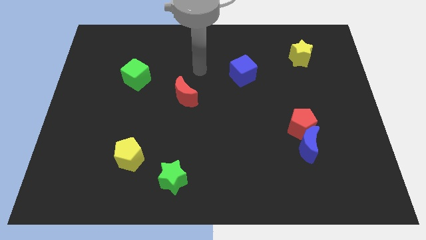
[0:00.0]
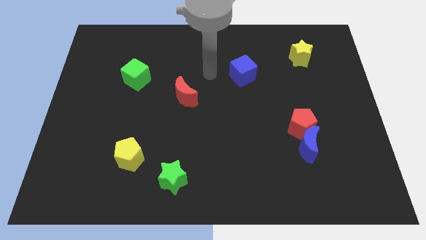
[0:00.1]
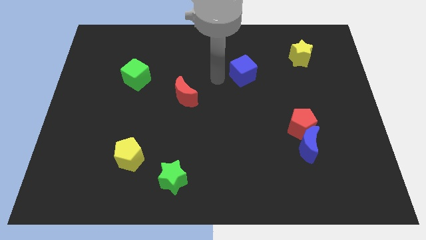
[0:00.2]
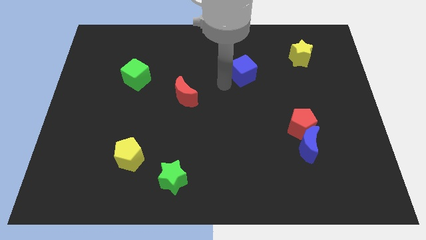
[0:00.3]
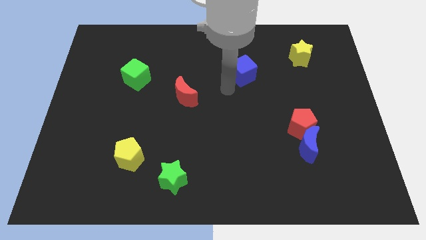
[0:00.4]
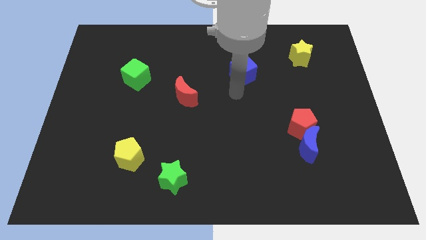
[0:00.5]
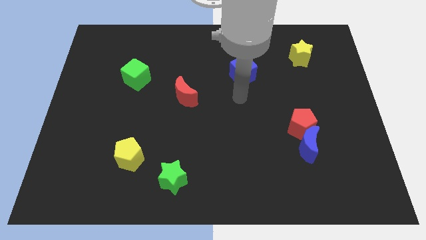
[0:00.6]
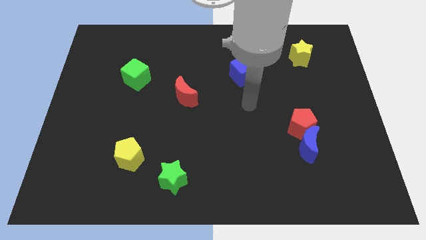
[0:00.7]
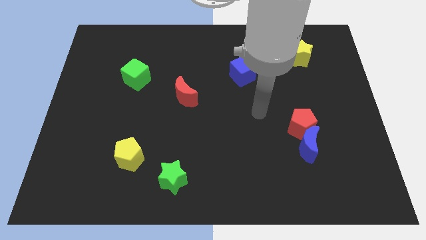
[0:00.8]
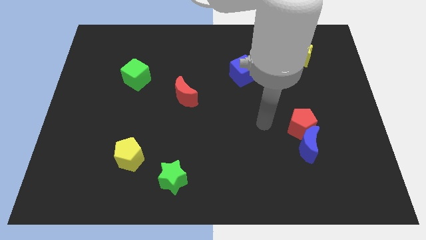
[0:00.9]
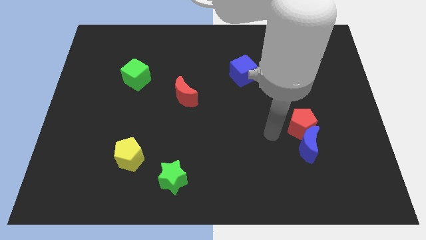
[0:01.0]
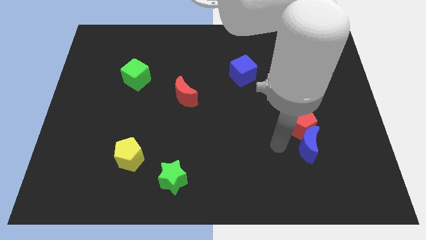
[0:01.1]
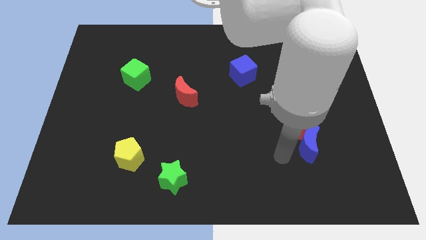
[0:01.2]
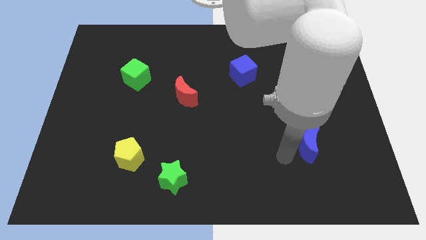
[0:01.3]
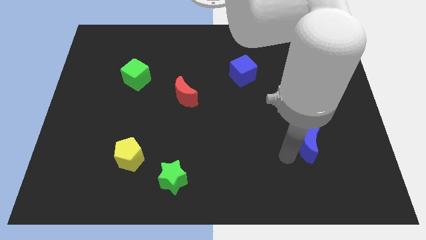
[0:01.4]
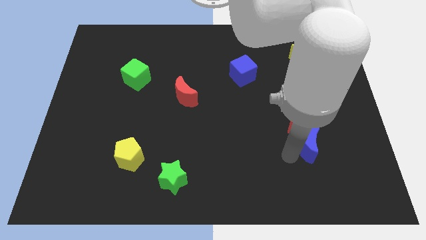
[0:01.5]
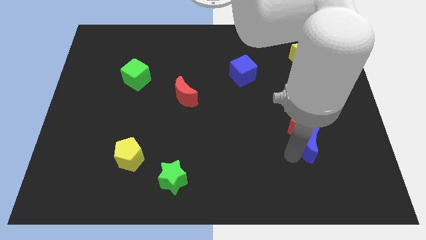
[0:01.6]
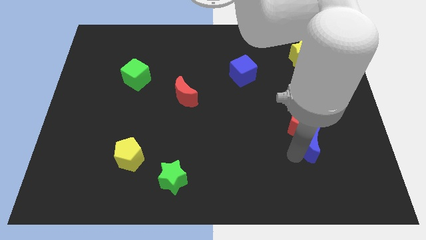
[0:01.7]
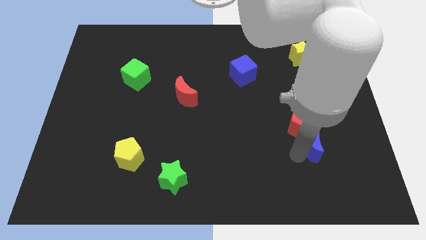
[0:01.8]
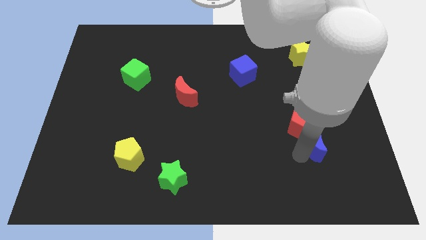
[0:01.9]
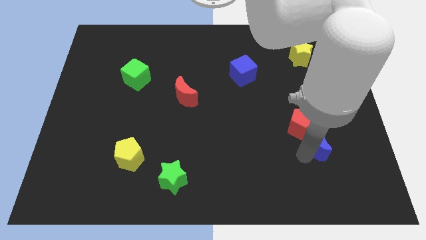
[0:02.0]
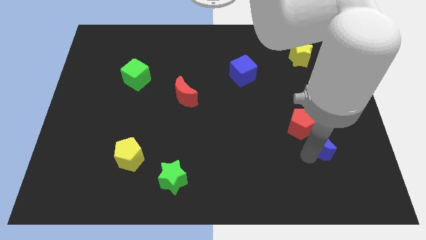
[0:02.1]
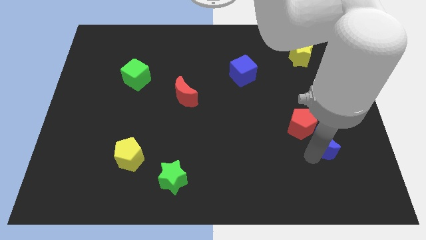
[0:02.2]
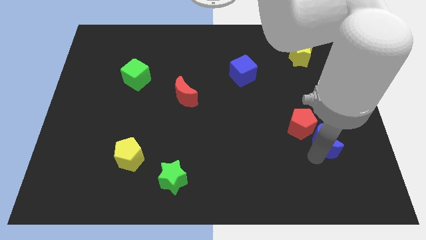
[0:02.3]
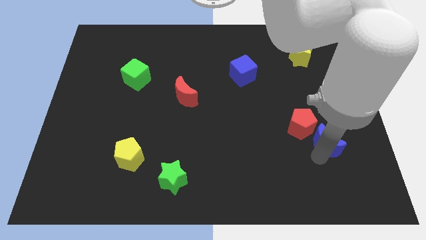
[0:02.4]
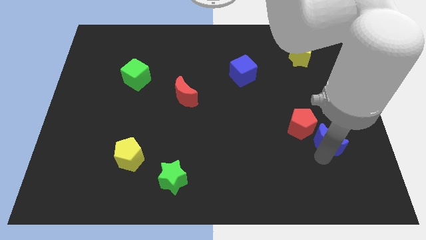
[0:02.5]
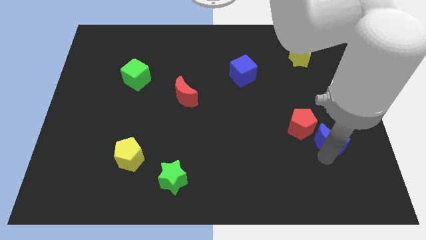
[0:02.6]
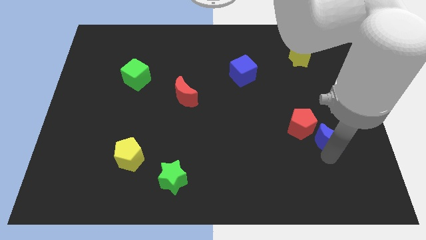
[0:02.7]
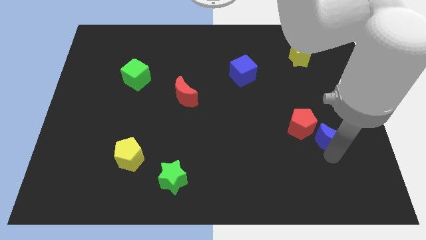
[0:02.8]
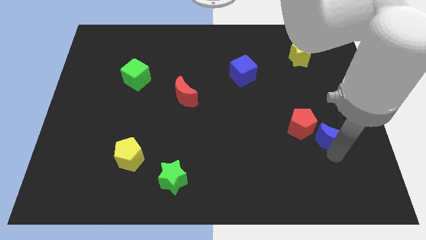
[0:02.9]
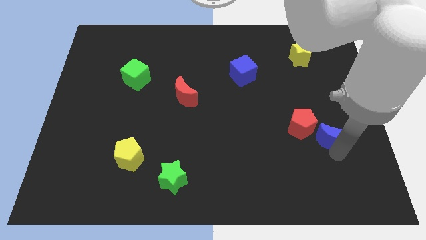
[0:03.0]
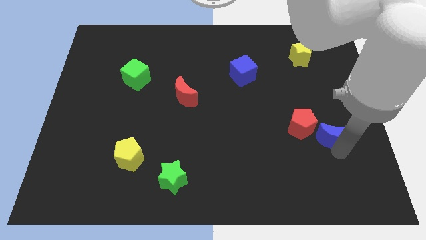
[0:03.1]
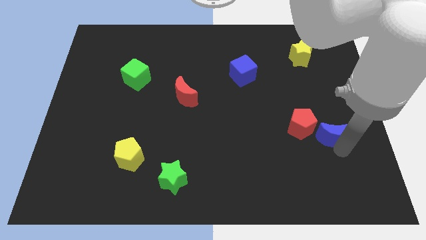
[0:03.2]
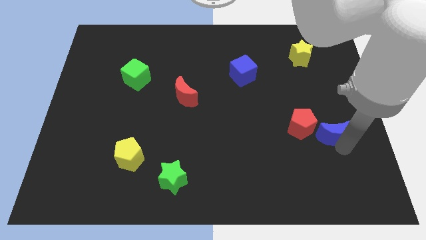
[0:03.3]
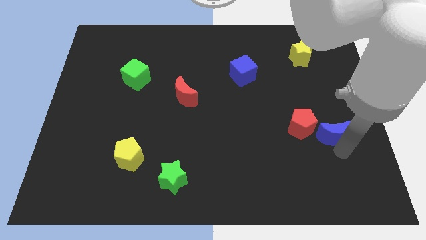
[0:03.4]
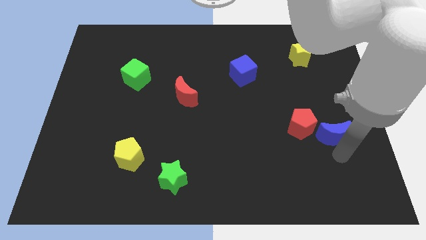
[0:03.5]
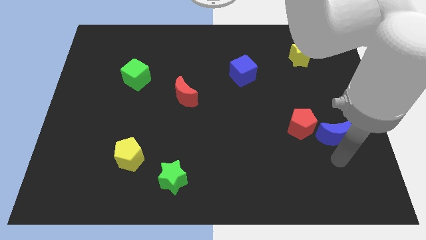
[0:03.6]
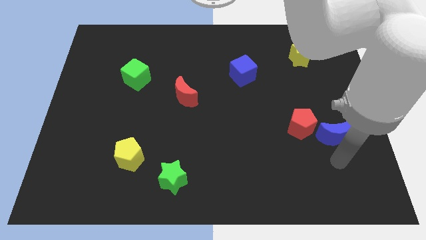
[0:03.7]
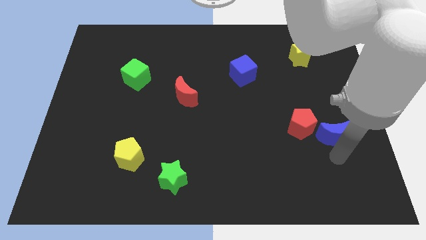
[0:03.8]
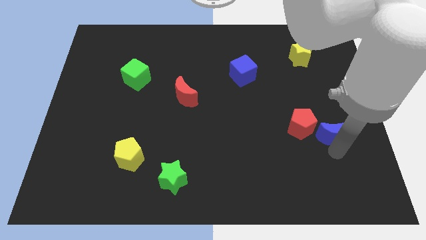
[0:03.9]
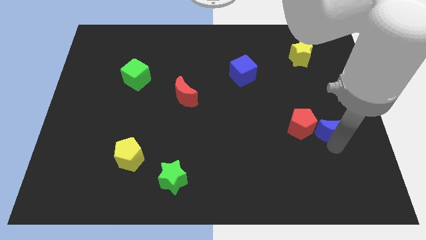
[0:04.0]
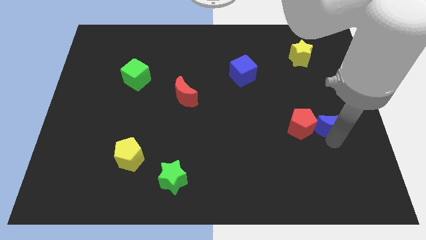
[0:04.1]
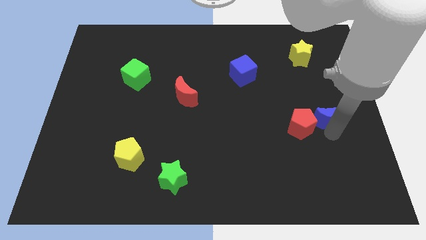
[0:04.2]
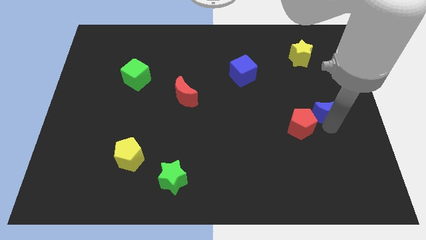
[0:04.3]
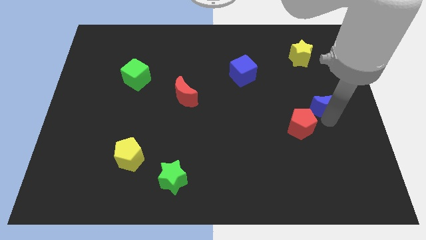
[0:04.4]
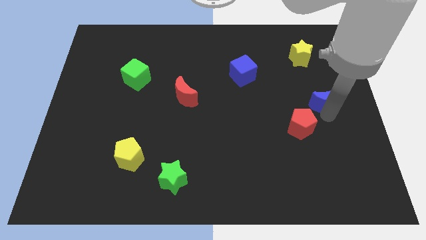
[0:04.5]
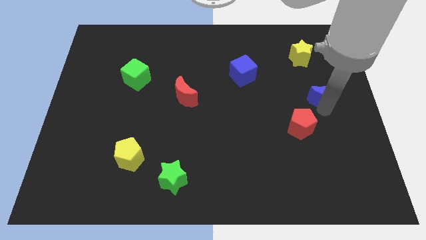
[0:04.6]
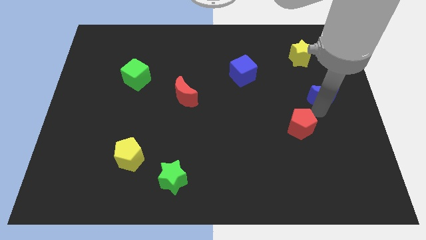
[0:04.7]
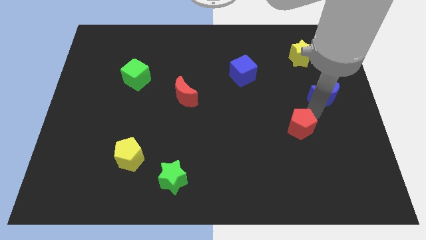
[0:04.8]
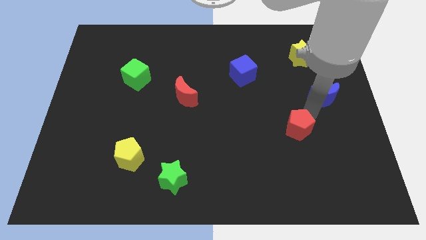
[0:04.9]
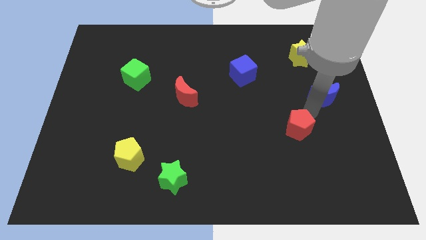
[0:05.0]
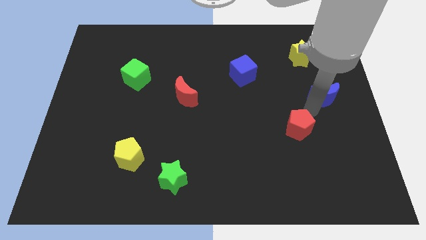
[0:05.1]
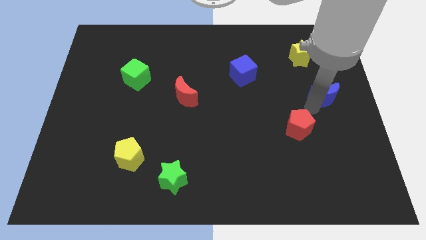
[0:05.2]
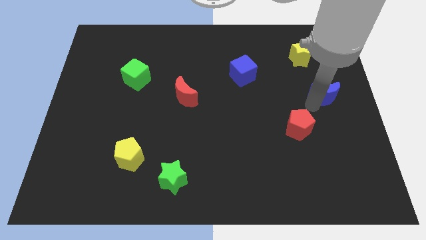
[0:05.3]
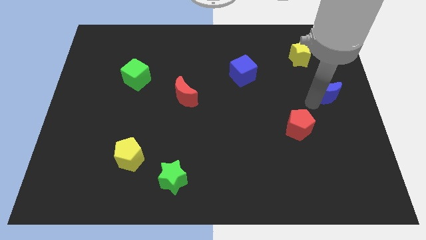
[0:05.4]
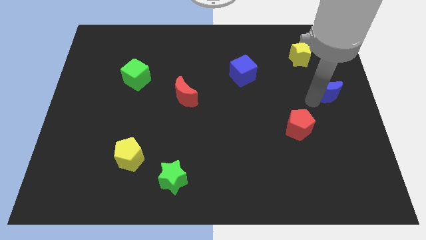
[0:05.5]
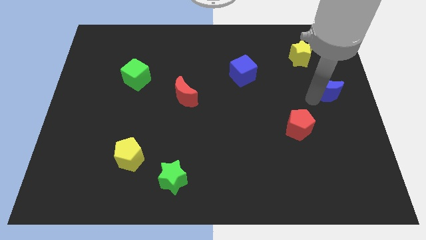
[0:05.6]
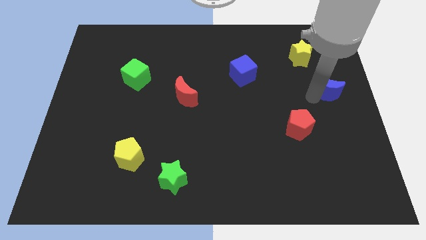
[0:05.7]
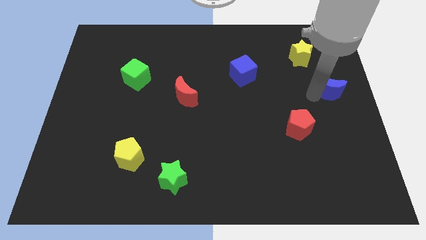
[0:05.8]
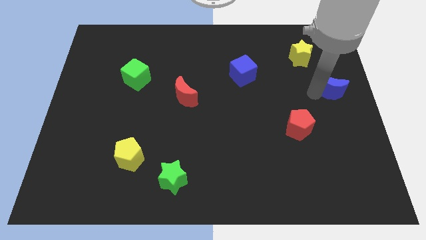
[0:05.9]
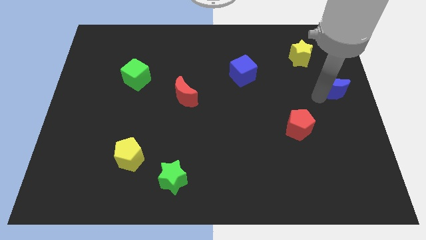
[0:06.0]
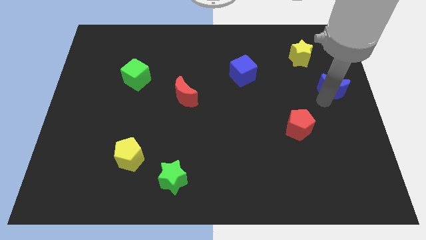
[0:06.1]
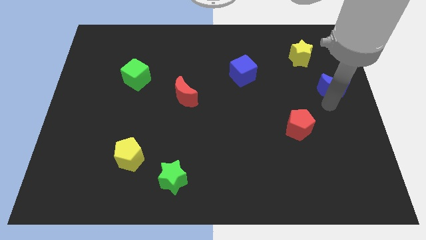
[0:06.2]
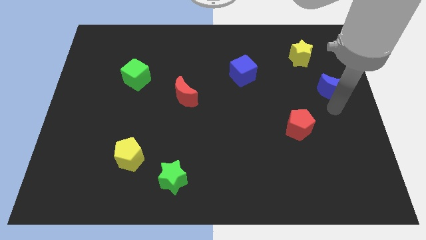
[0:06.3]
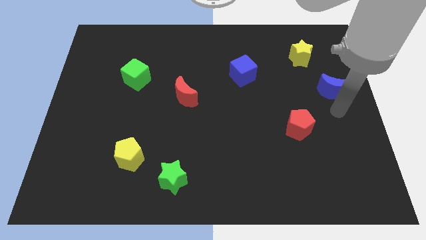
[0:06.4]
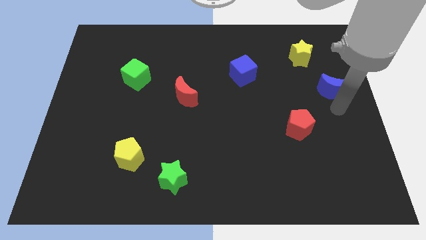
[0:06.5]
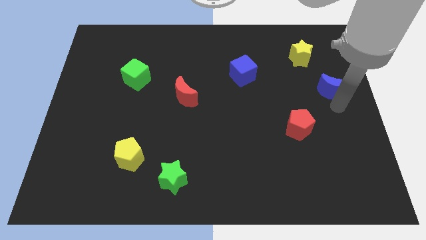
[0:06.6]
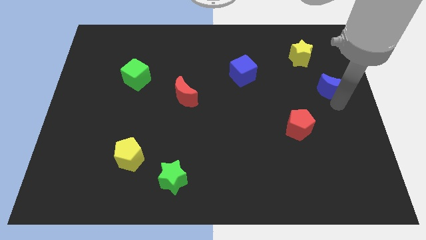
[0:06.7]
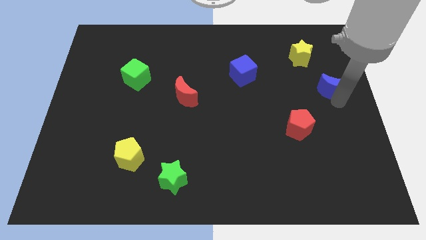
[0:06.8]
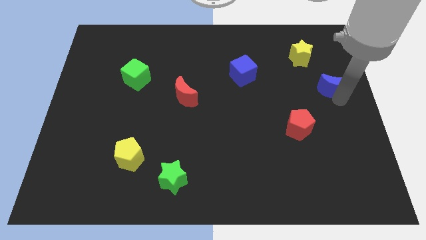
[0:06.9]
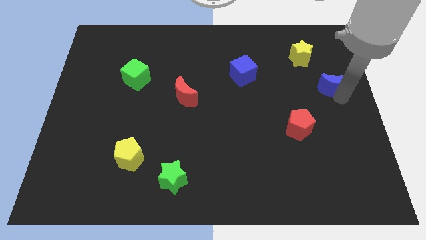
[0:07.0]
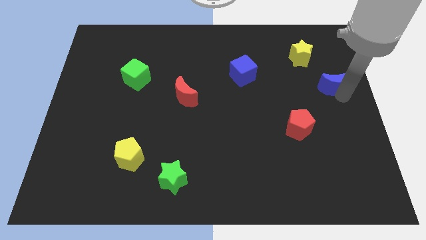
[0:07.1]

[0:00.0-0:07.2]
move the blue moon diagonally down and to the right of the yellow star

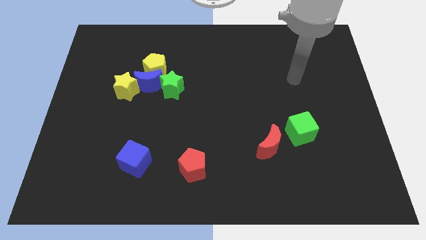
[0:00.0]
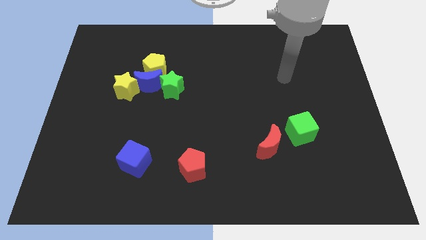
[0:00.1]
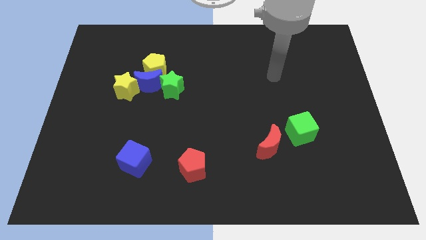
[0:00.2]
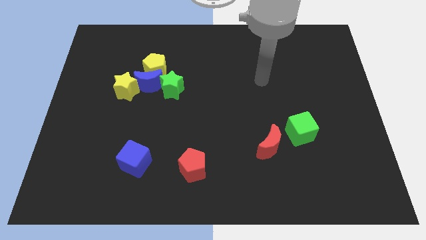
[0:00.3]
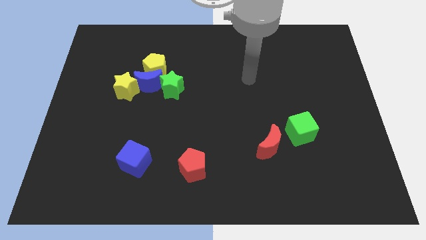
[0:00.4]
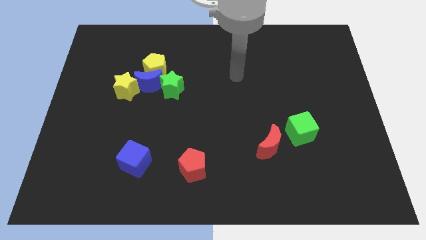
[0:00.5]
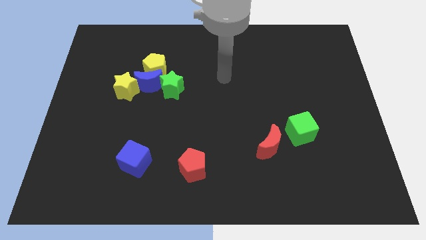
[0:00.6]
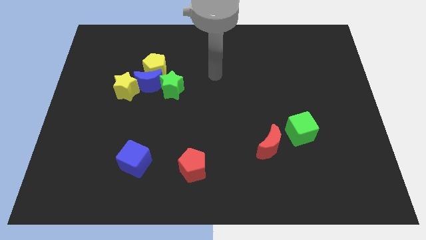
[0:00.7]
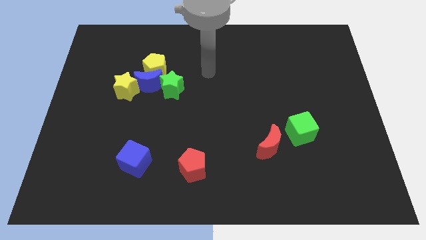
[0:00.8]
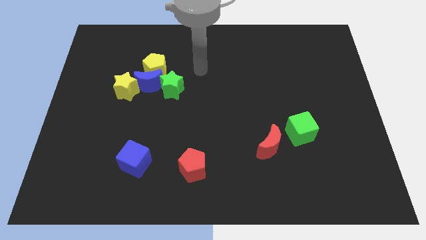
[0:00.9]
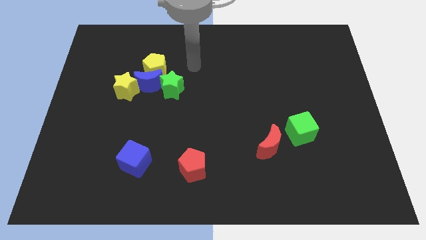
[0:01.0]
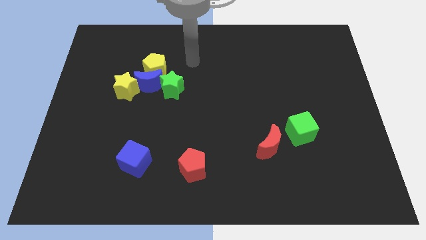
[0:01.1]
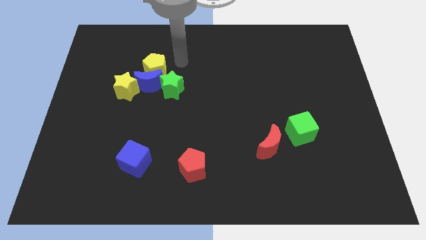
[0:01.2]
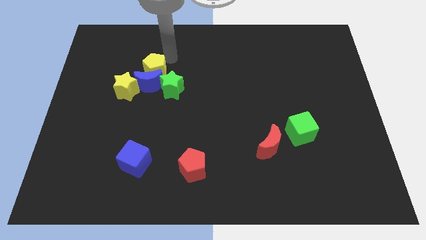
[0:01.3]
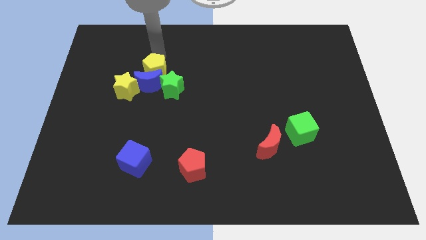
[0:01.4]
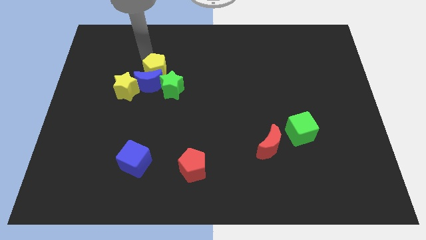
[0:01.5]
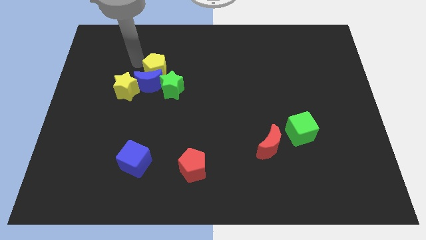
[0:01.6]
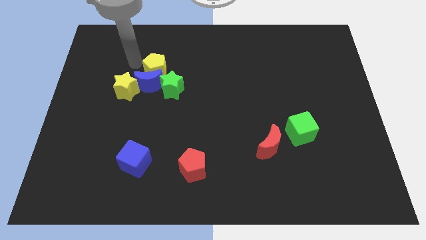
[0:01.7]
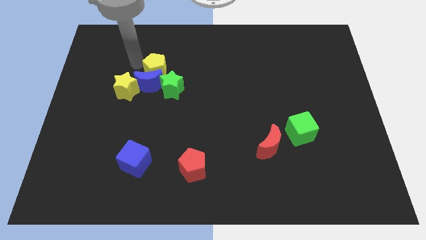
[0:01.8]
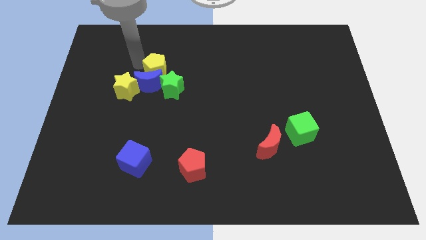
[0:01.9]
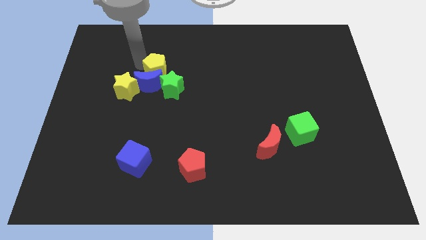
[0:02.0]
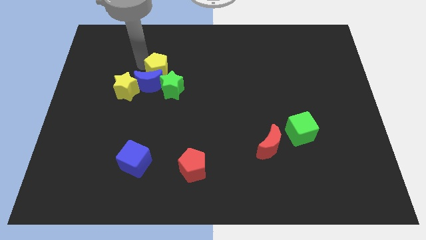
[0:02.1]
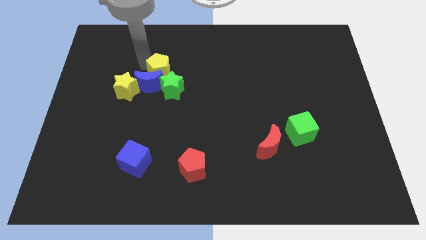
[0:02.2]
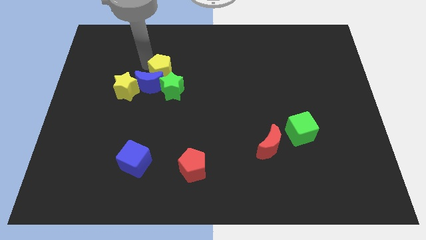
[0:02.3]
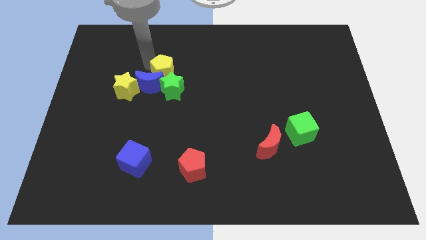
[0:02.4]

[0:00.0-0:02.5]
put the yellow pentagon just right of the blue moon
